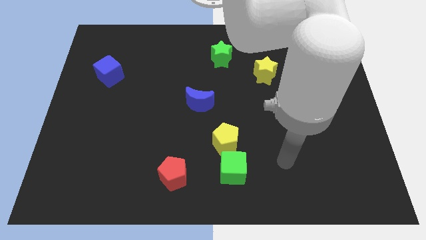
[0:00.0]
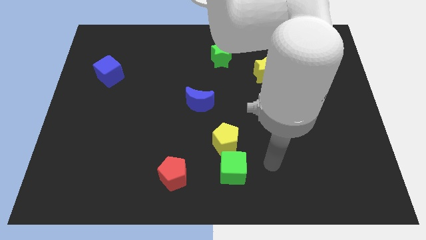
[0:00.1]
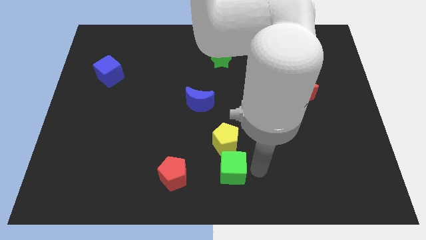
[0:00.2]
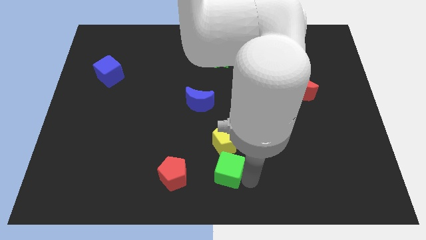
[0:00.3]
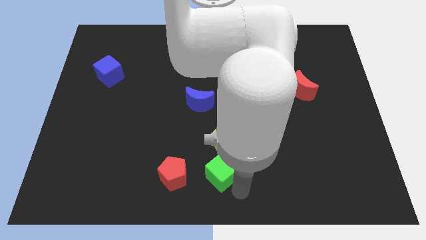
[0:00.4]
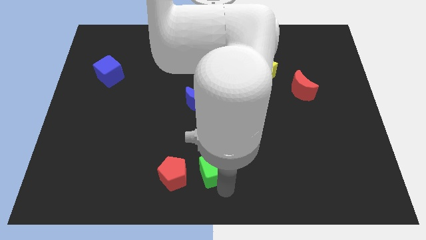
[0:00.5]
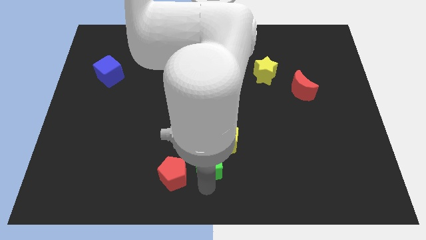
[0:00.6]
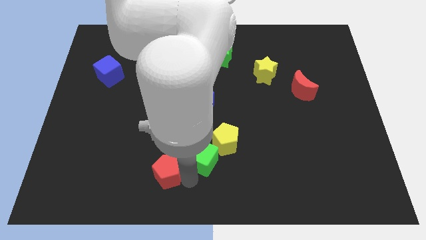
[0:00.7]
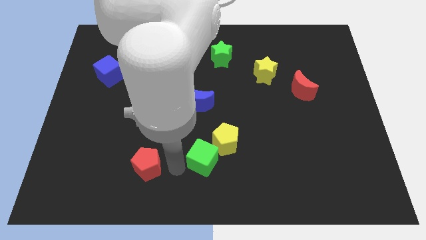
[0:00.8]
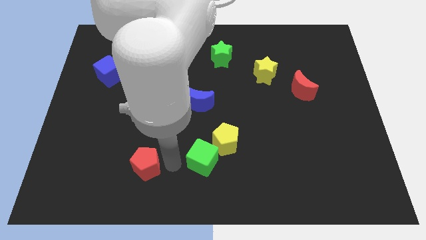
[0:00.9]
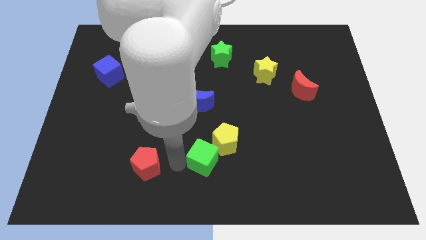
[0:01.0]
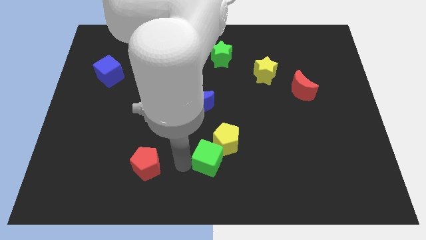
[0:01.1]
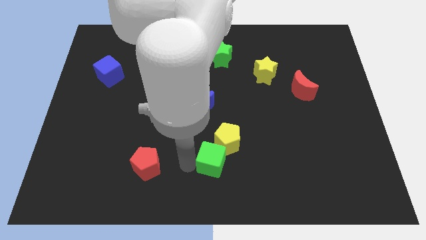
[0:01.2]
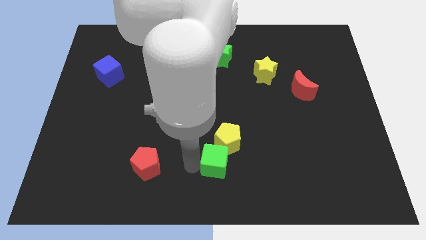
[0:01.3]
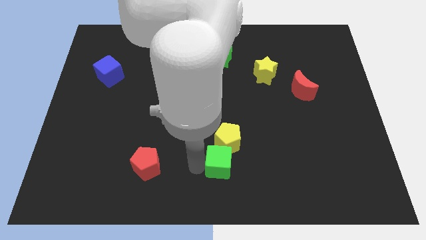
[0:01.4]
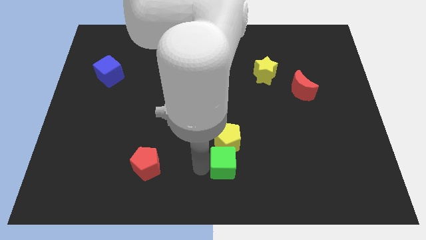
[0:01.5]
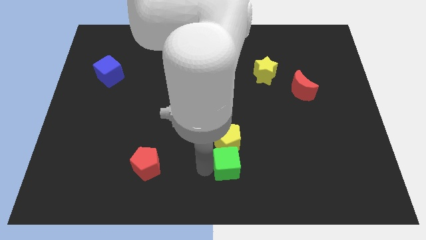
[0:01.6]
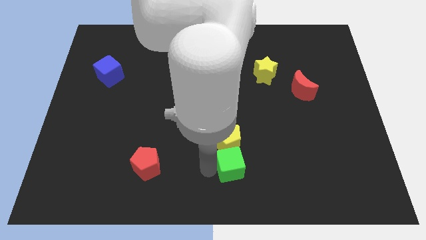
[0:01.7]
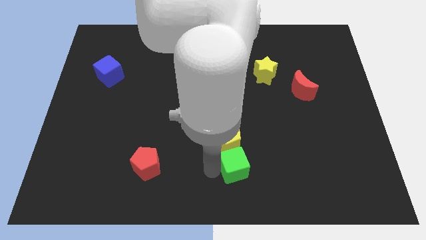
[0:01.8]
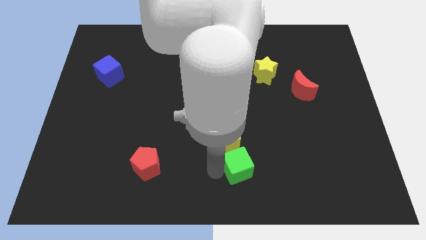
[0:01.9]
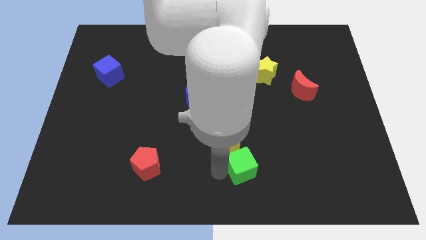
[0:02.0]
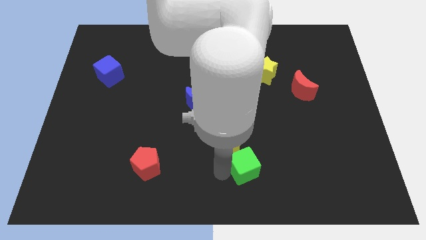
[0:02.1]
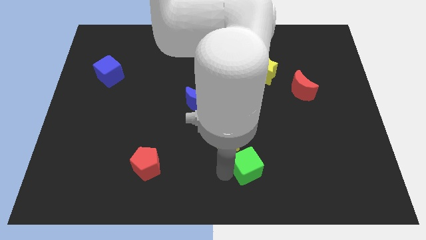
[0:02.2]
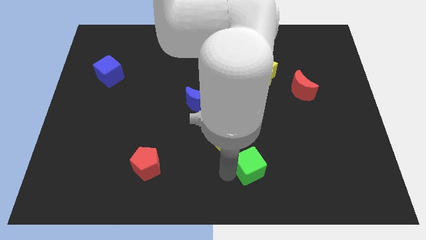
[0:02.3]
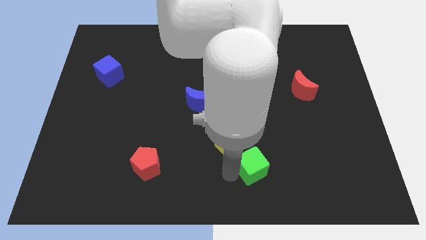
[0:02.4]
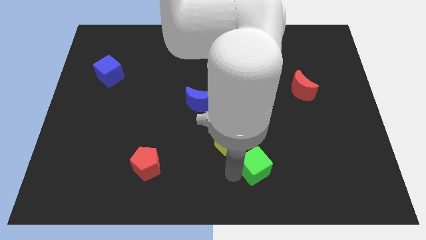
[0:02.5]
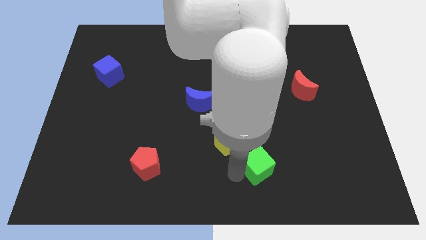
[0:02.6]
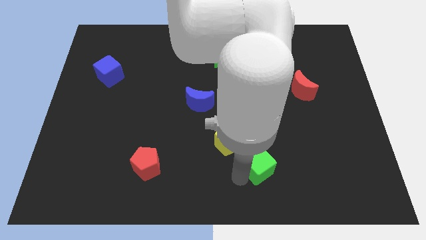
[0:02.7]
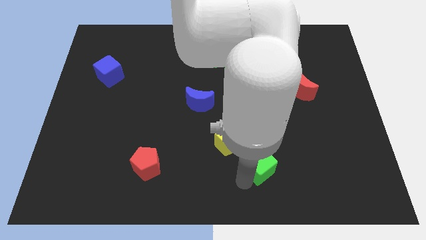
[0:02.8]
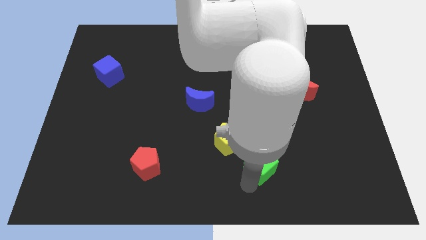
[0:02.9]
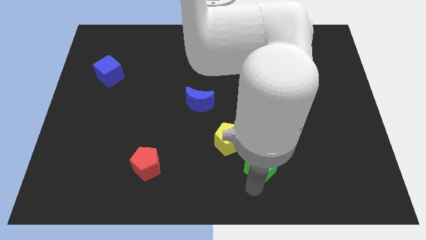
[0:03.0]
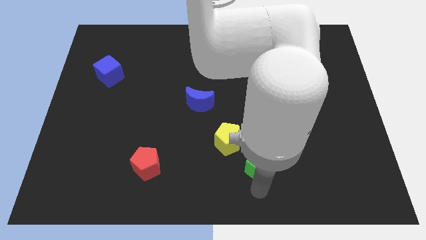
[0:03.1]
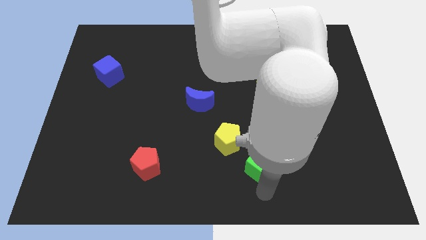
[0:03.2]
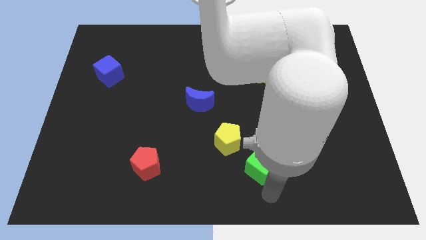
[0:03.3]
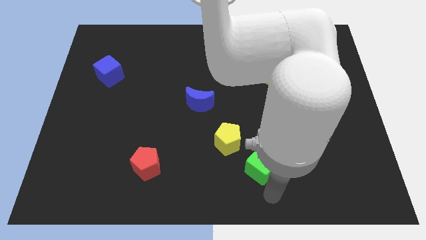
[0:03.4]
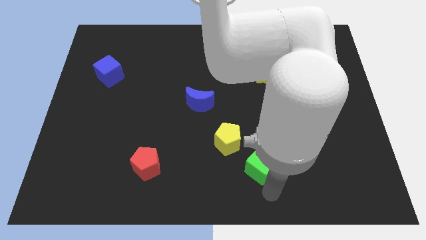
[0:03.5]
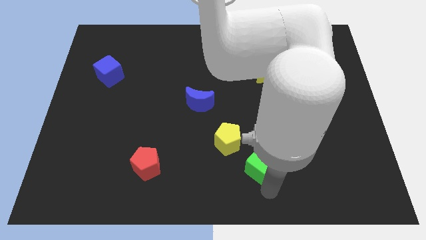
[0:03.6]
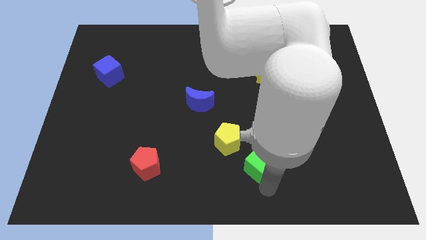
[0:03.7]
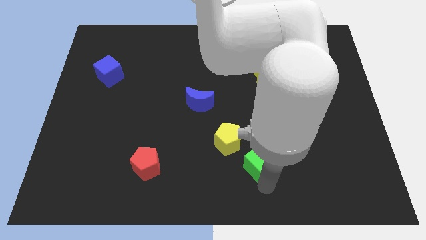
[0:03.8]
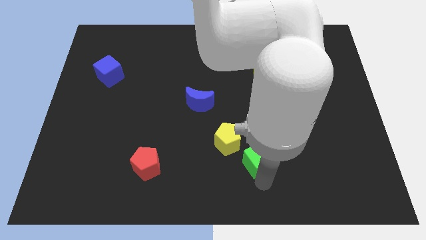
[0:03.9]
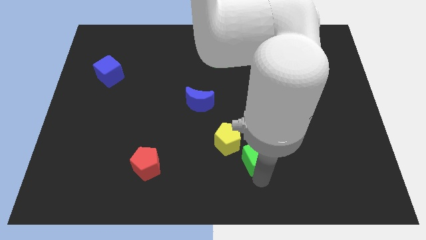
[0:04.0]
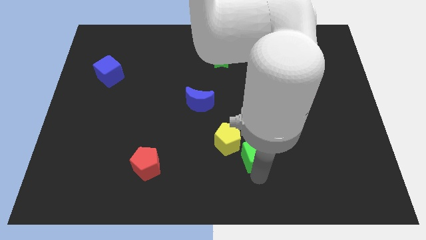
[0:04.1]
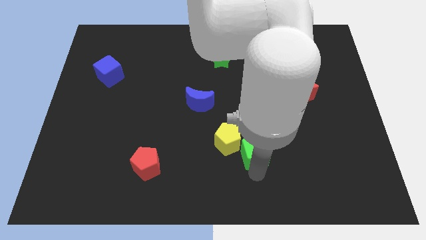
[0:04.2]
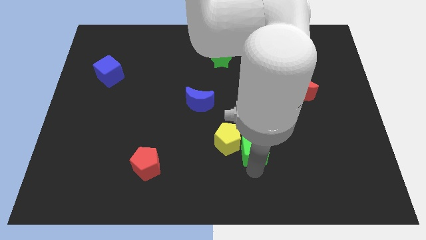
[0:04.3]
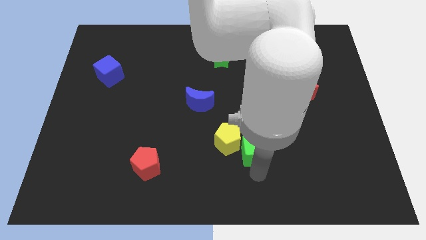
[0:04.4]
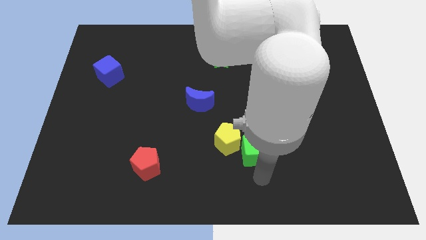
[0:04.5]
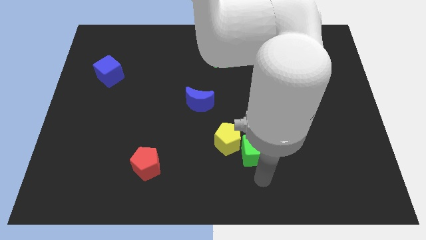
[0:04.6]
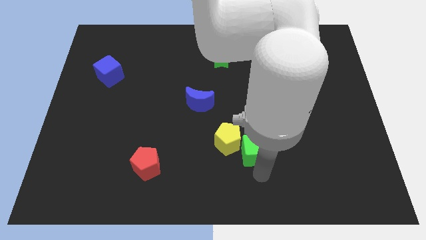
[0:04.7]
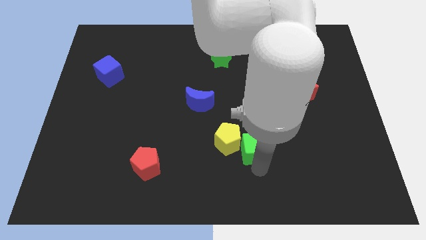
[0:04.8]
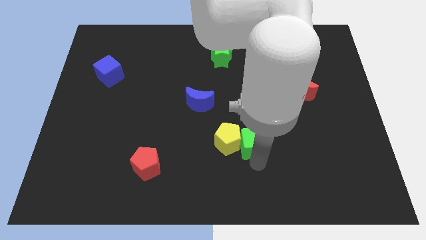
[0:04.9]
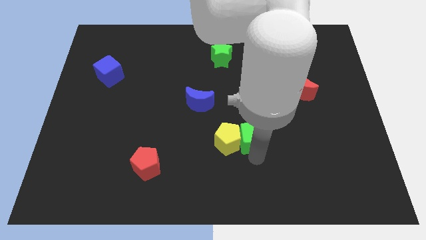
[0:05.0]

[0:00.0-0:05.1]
slide the green cube up slightly

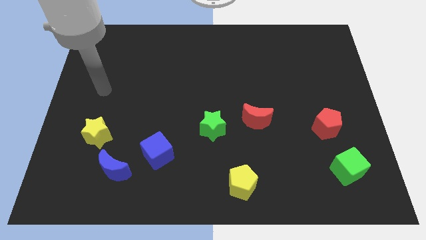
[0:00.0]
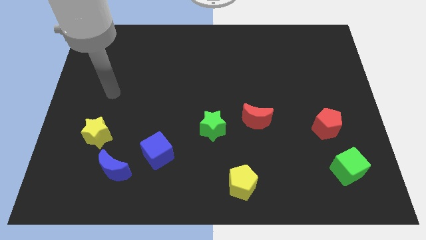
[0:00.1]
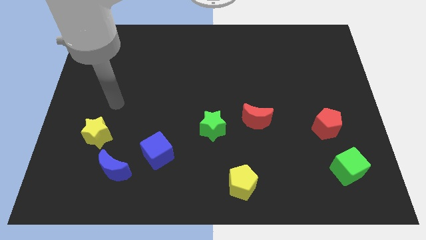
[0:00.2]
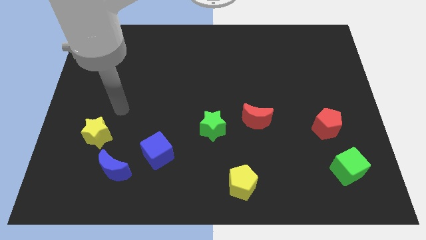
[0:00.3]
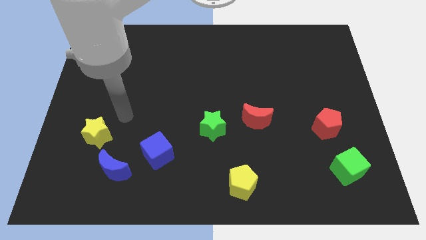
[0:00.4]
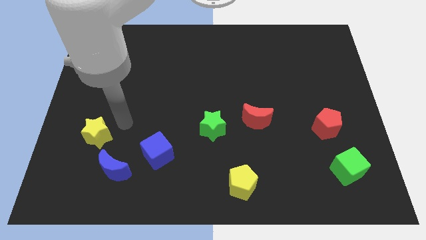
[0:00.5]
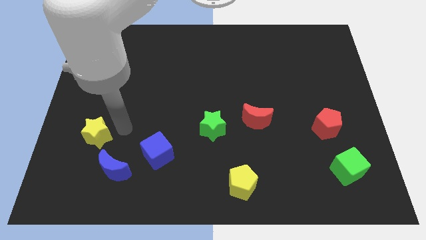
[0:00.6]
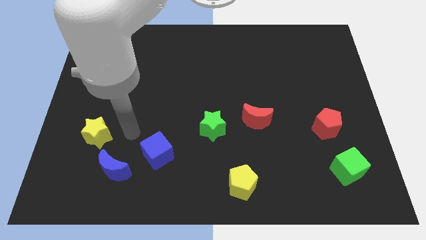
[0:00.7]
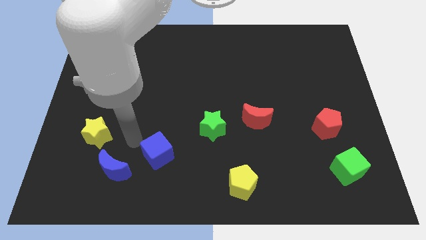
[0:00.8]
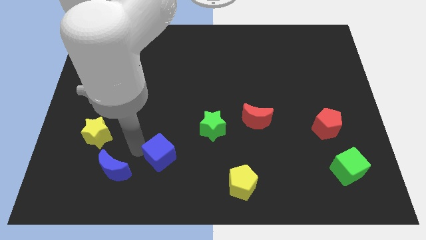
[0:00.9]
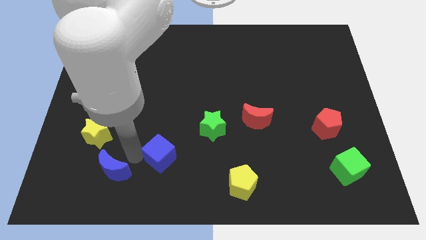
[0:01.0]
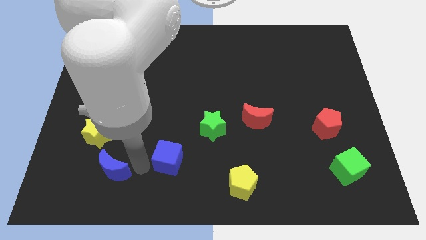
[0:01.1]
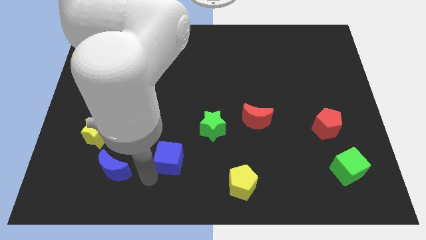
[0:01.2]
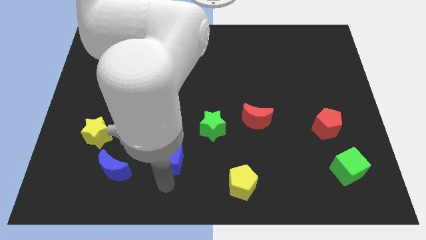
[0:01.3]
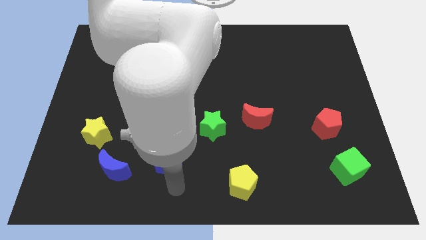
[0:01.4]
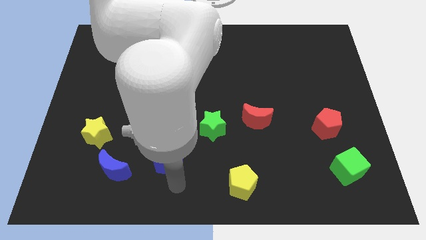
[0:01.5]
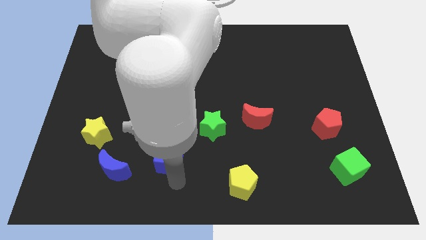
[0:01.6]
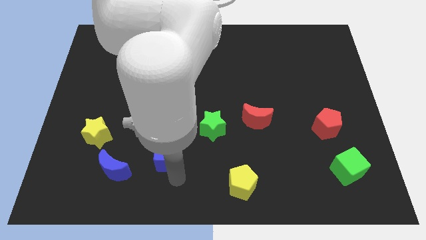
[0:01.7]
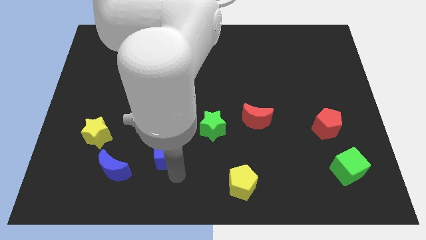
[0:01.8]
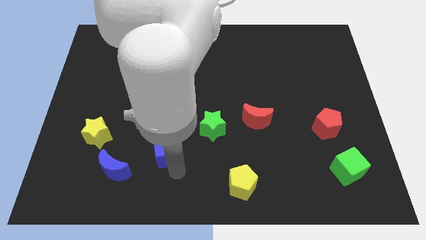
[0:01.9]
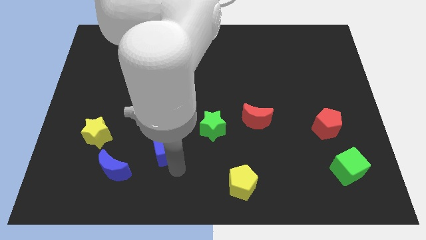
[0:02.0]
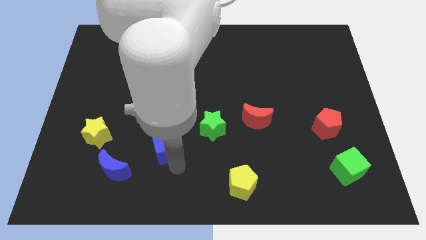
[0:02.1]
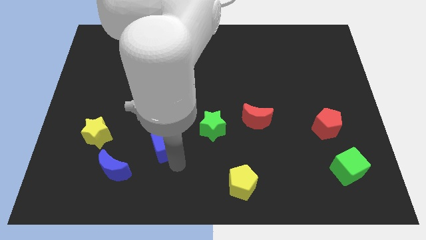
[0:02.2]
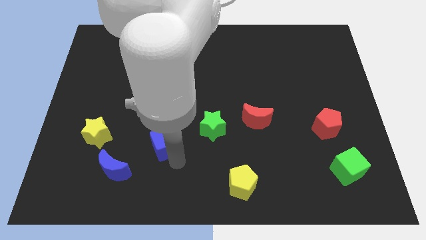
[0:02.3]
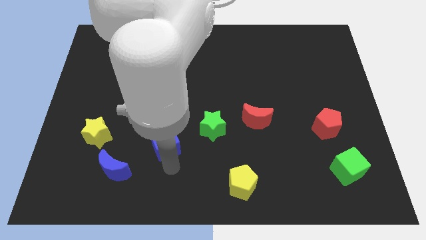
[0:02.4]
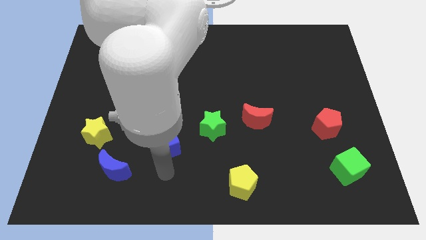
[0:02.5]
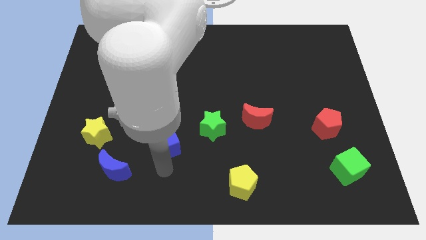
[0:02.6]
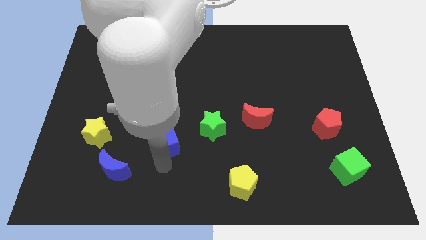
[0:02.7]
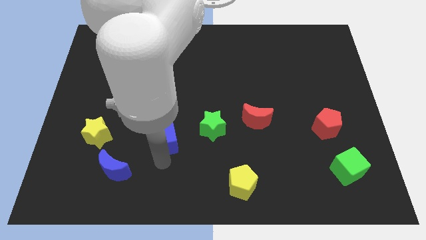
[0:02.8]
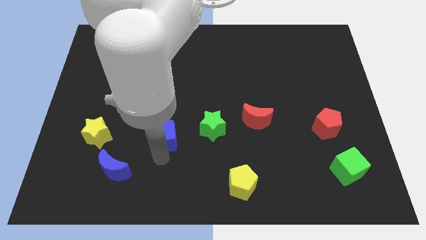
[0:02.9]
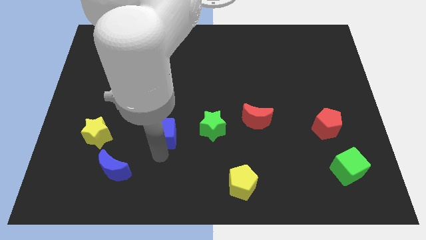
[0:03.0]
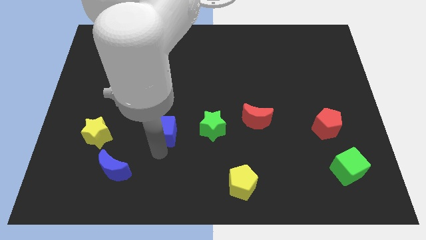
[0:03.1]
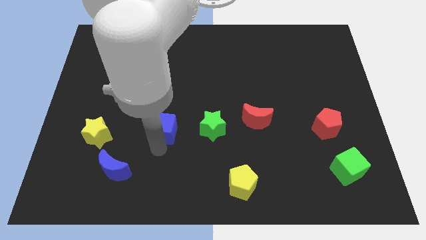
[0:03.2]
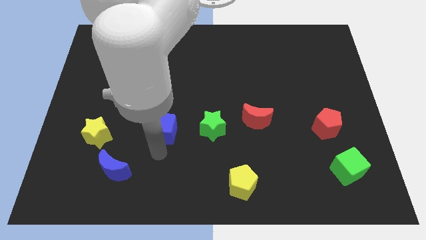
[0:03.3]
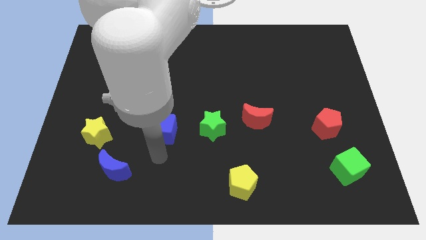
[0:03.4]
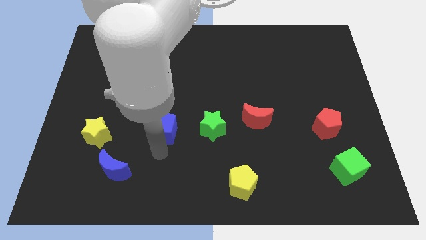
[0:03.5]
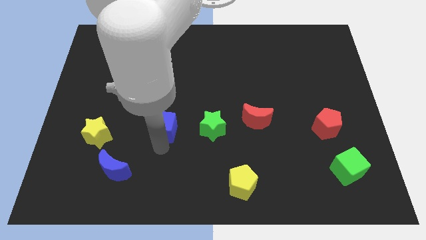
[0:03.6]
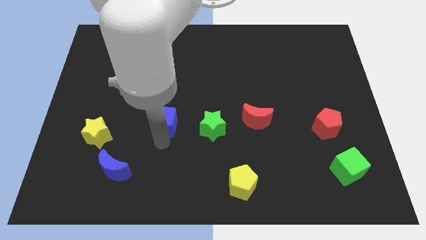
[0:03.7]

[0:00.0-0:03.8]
push the blue cube up somewhat
